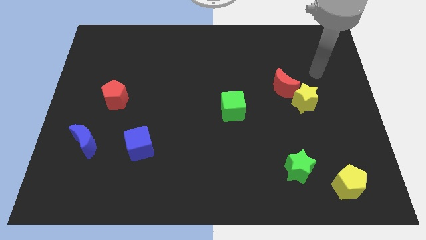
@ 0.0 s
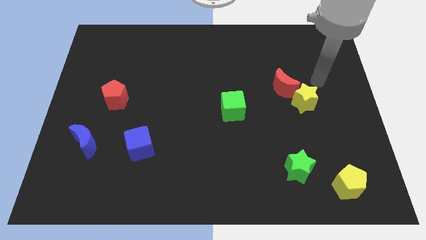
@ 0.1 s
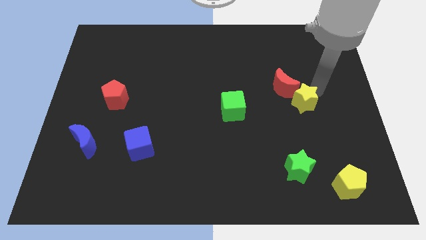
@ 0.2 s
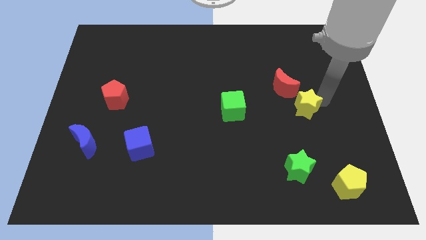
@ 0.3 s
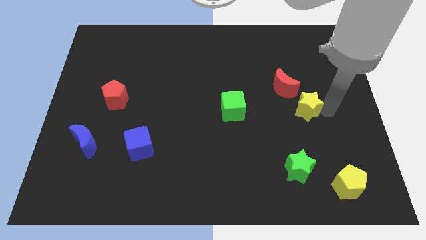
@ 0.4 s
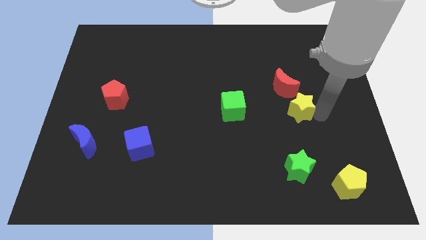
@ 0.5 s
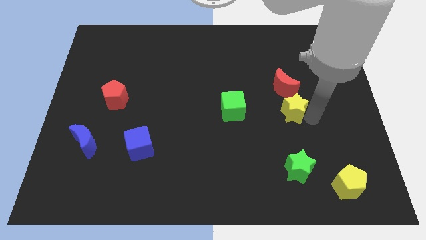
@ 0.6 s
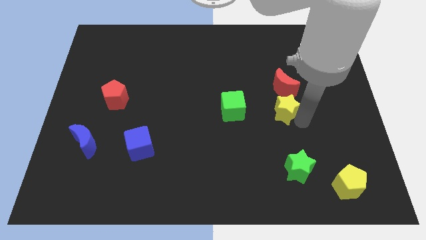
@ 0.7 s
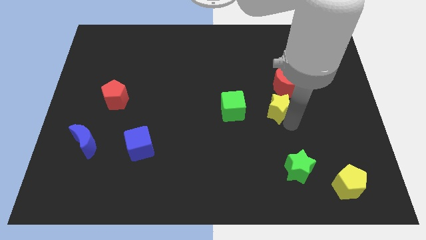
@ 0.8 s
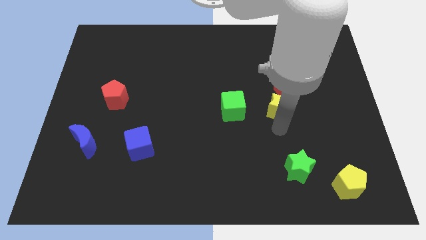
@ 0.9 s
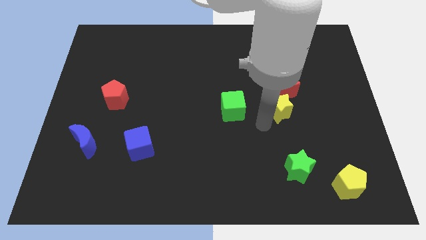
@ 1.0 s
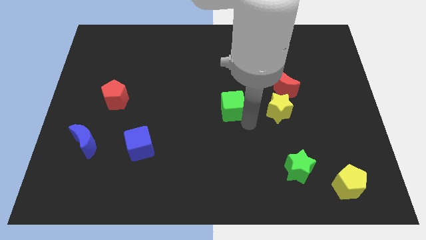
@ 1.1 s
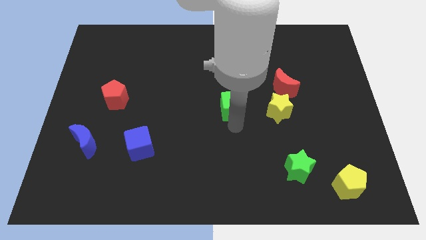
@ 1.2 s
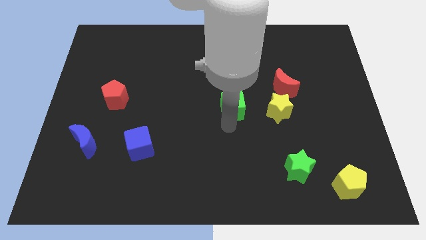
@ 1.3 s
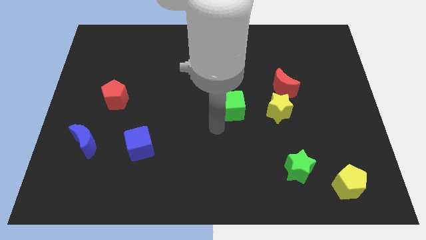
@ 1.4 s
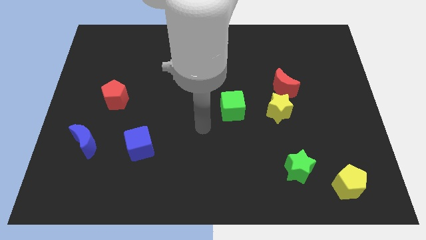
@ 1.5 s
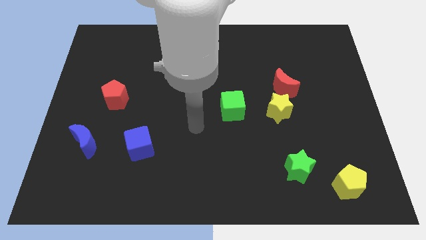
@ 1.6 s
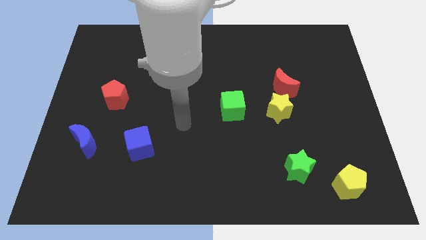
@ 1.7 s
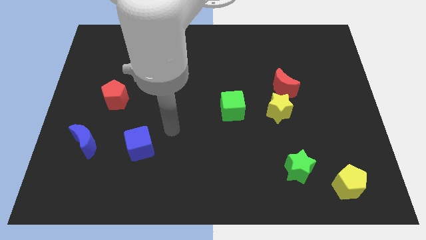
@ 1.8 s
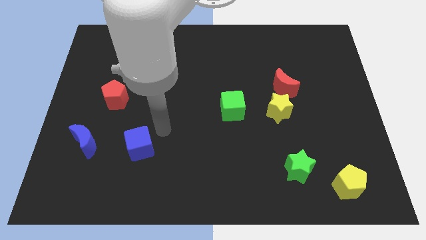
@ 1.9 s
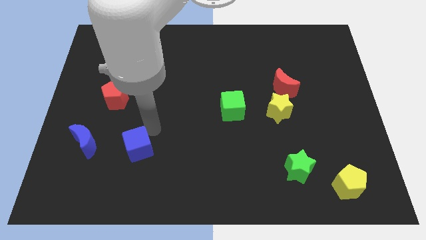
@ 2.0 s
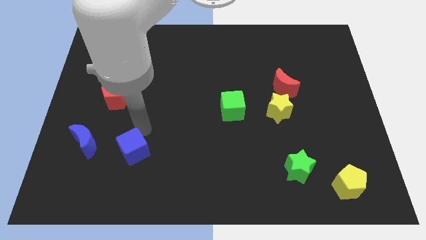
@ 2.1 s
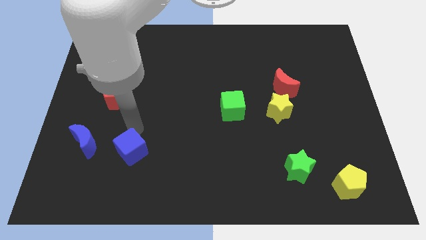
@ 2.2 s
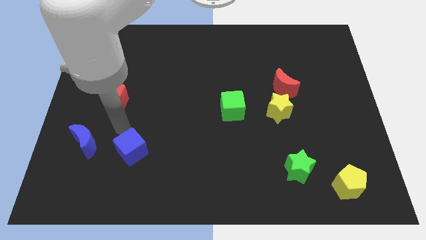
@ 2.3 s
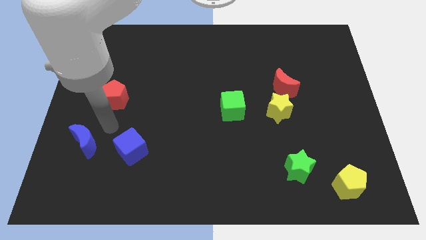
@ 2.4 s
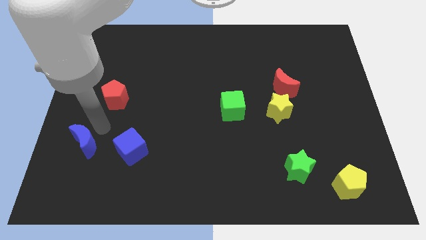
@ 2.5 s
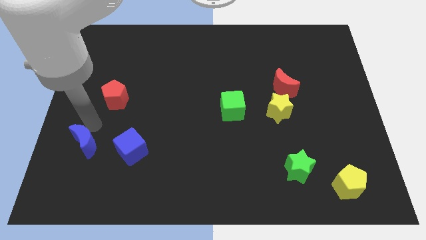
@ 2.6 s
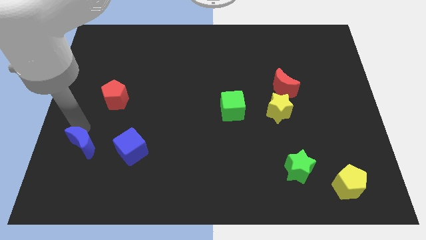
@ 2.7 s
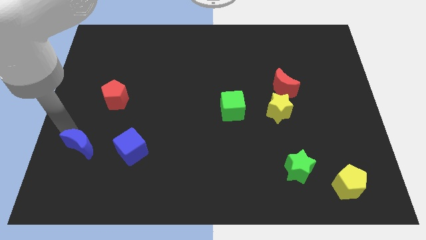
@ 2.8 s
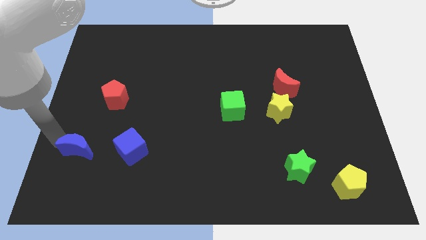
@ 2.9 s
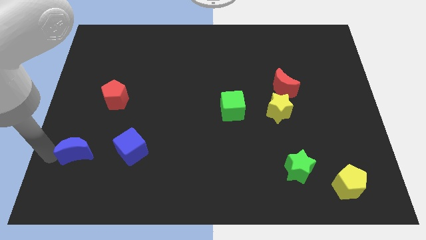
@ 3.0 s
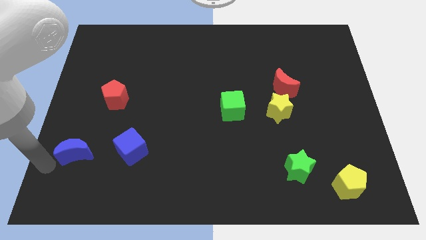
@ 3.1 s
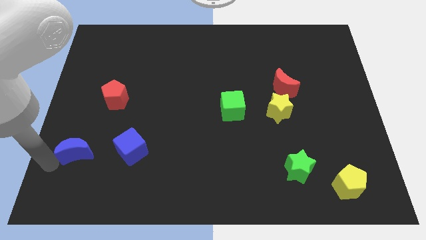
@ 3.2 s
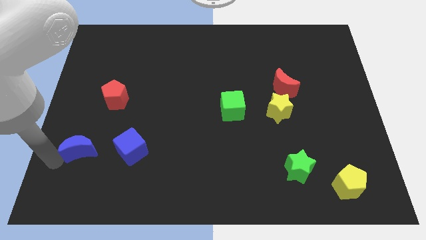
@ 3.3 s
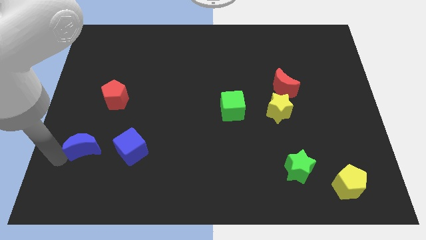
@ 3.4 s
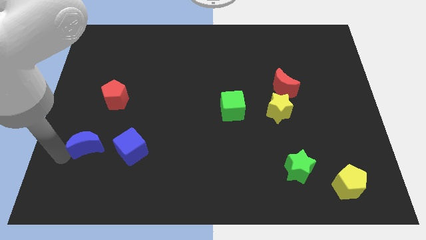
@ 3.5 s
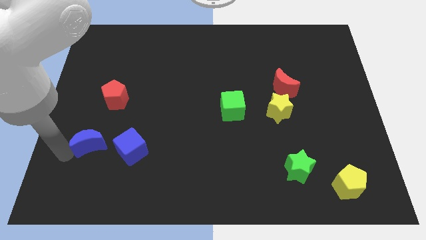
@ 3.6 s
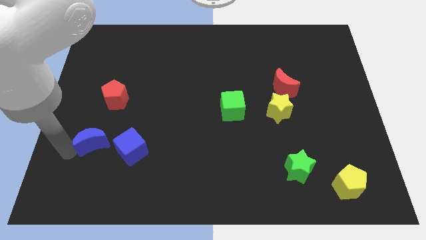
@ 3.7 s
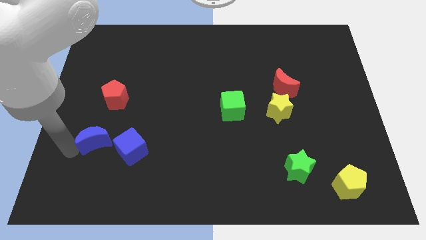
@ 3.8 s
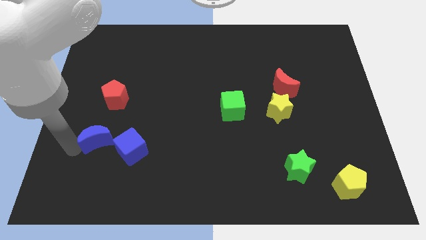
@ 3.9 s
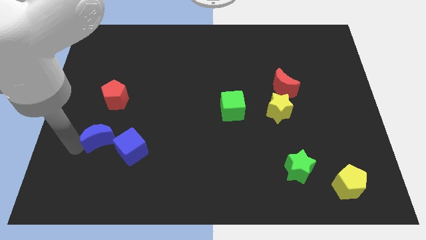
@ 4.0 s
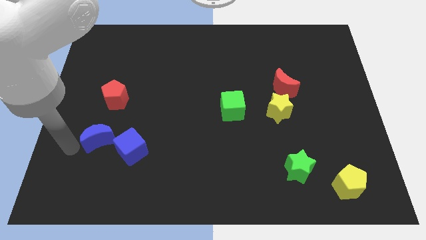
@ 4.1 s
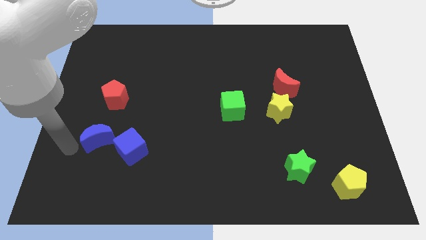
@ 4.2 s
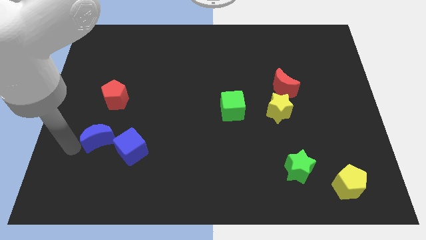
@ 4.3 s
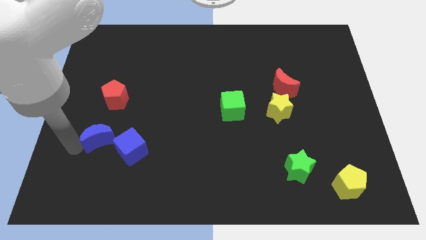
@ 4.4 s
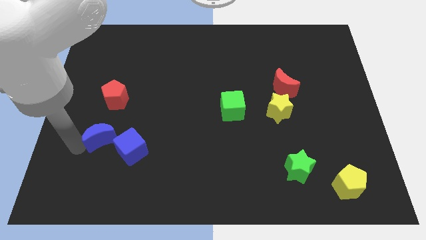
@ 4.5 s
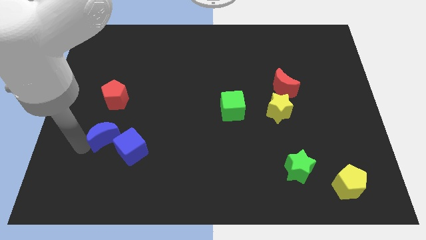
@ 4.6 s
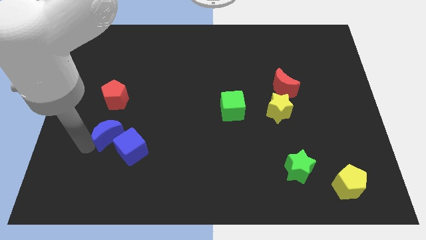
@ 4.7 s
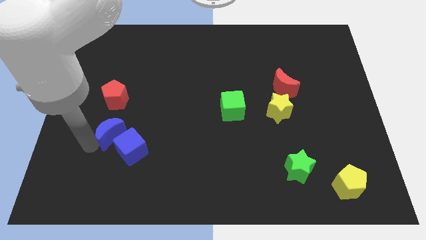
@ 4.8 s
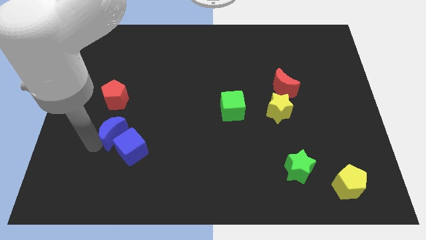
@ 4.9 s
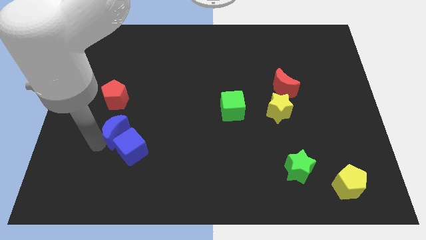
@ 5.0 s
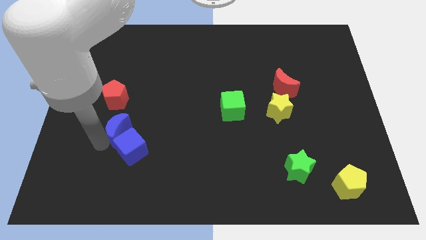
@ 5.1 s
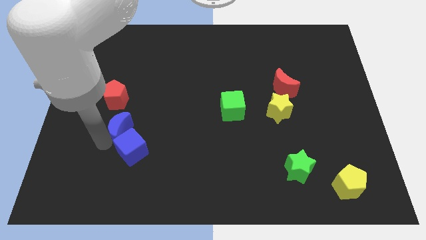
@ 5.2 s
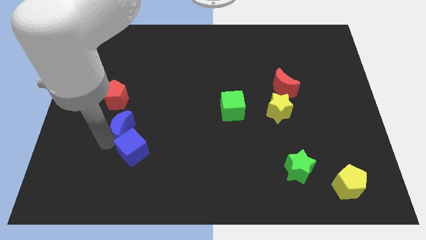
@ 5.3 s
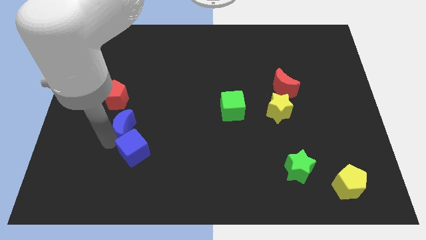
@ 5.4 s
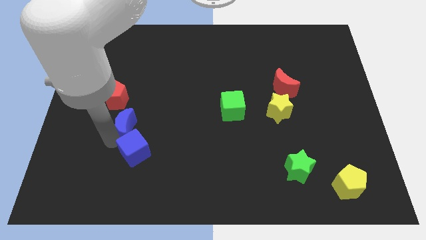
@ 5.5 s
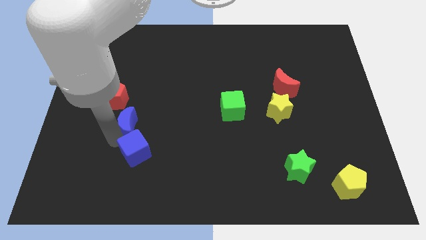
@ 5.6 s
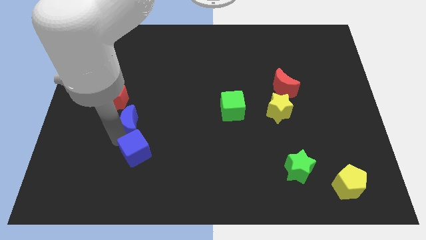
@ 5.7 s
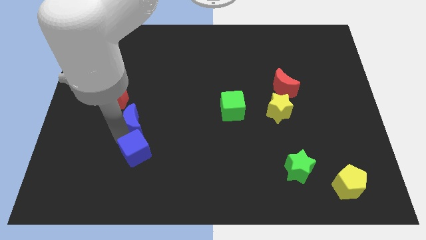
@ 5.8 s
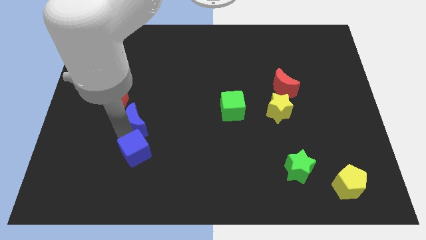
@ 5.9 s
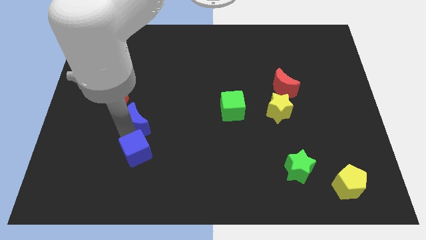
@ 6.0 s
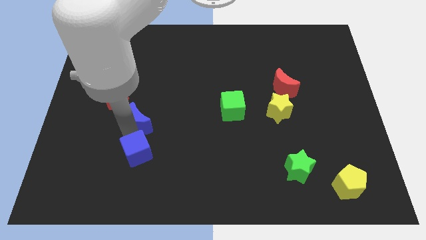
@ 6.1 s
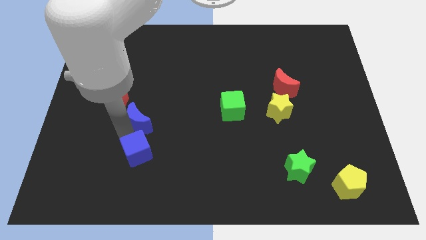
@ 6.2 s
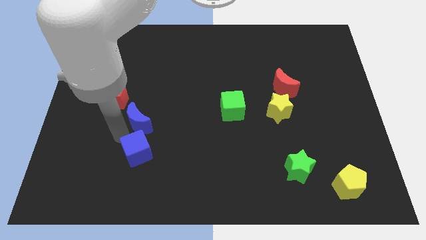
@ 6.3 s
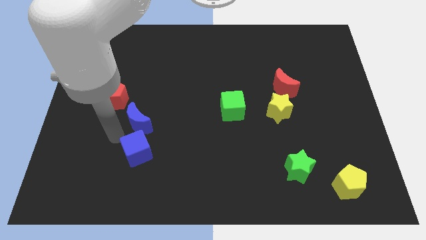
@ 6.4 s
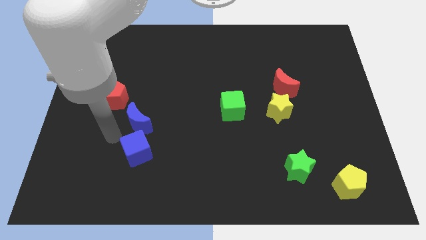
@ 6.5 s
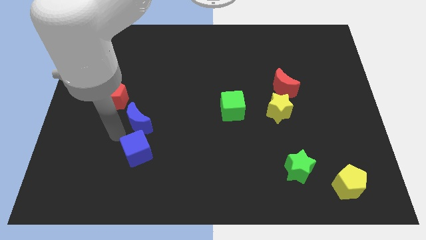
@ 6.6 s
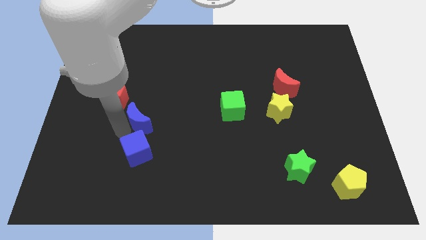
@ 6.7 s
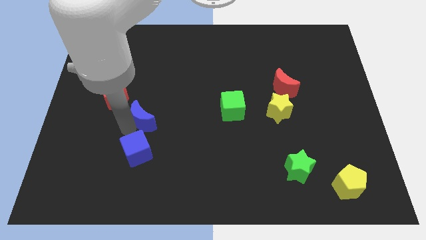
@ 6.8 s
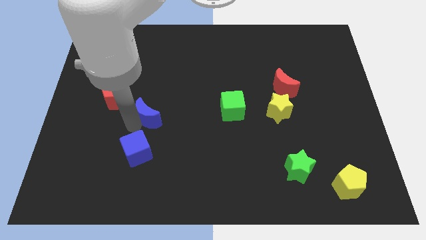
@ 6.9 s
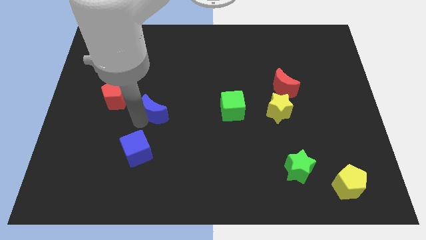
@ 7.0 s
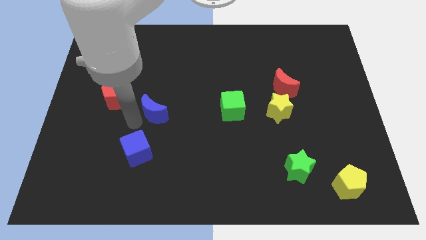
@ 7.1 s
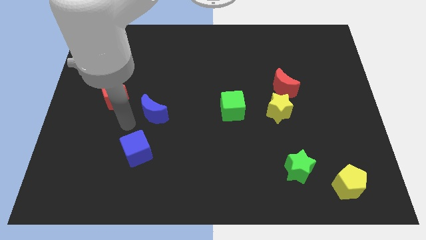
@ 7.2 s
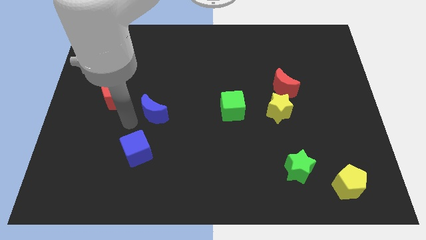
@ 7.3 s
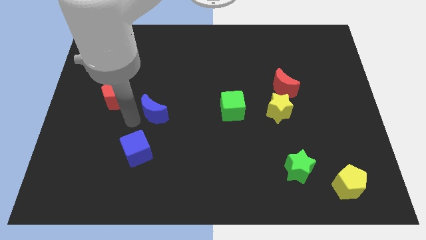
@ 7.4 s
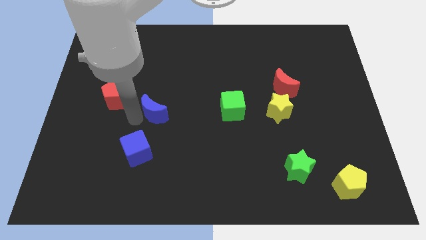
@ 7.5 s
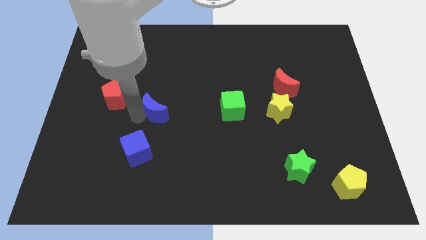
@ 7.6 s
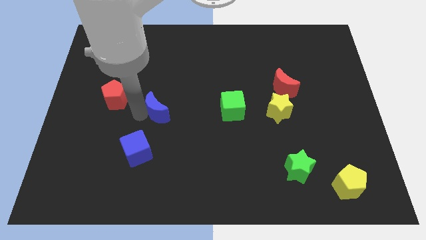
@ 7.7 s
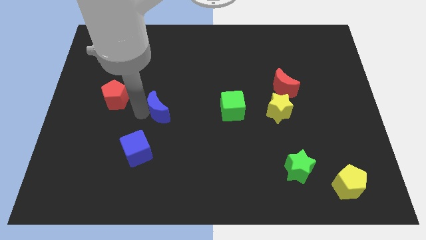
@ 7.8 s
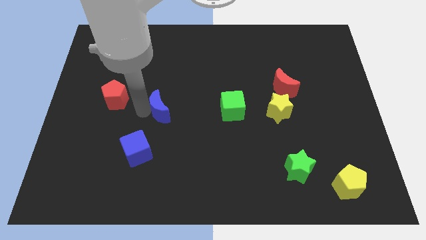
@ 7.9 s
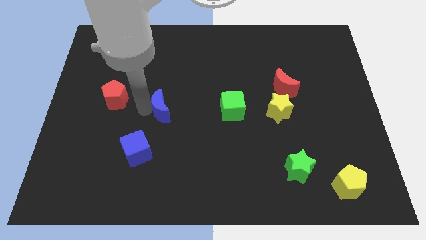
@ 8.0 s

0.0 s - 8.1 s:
push the blue moon to the center of the board
